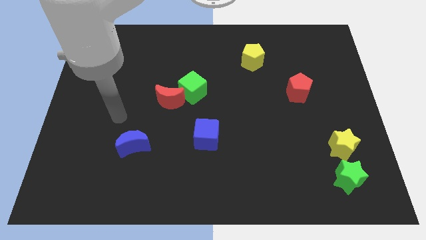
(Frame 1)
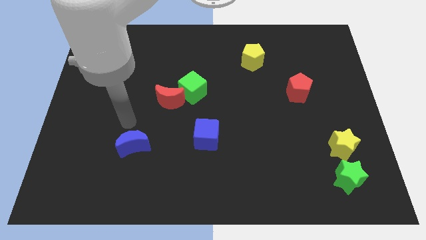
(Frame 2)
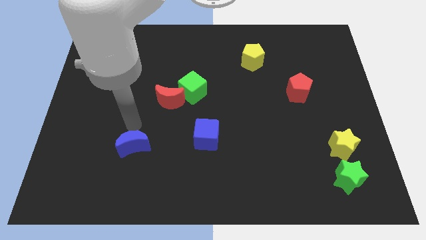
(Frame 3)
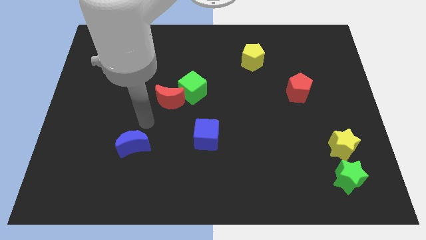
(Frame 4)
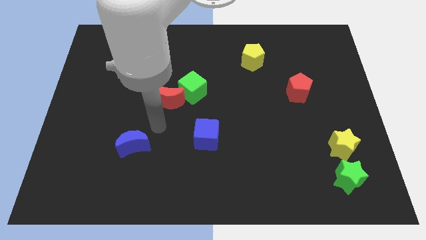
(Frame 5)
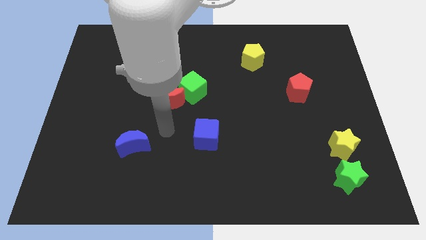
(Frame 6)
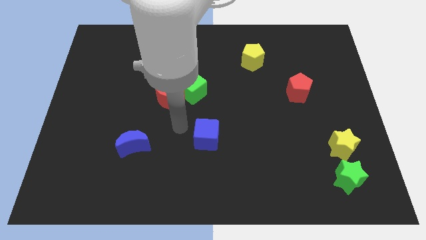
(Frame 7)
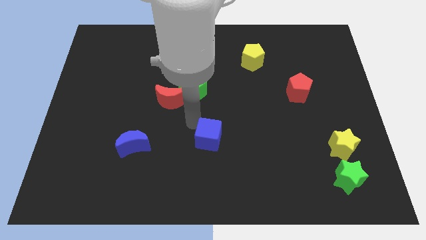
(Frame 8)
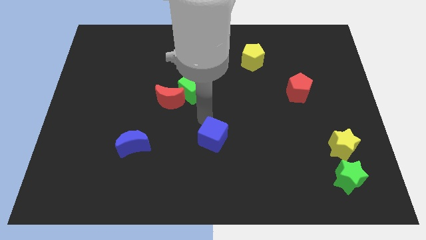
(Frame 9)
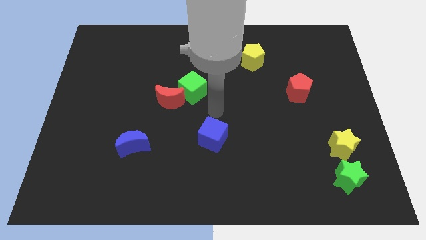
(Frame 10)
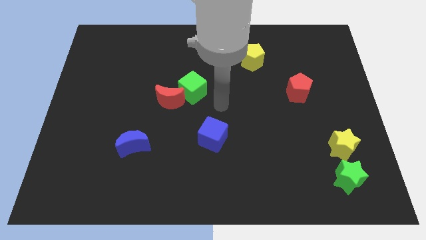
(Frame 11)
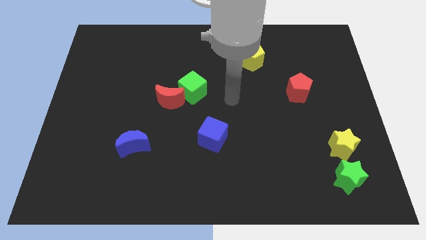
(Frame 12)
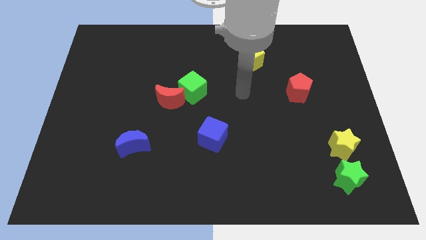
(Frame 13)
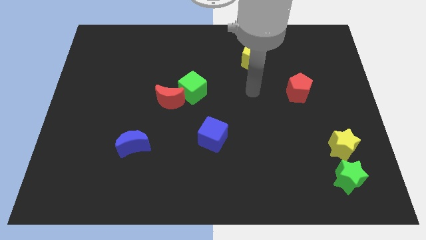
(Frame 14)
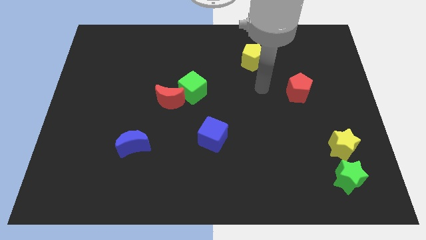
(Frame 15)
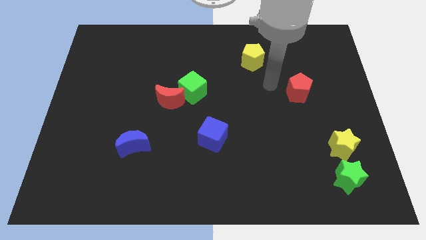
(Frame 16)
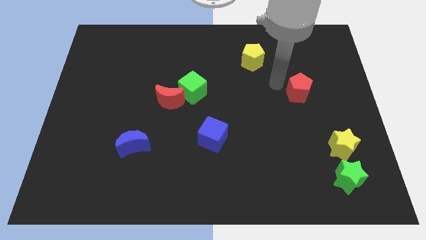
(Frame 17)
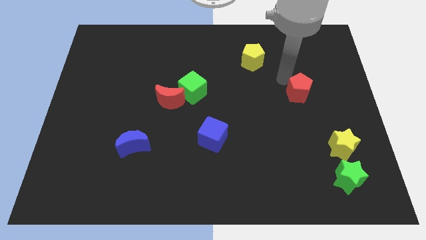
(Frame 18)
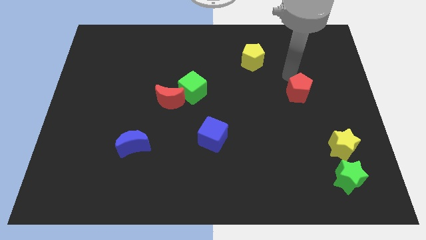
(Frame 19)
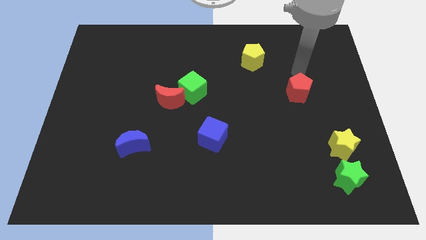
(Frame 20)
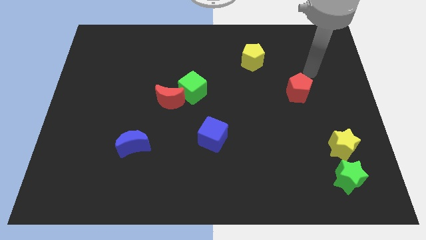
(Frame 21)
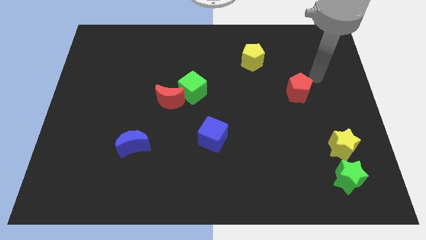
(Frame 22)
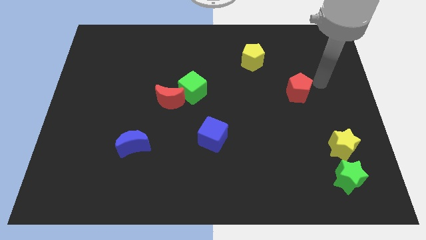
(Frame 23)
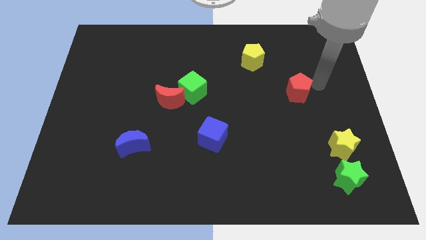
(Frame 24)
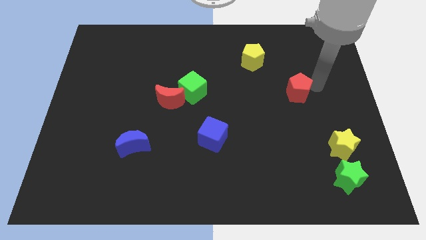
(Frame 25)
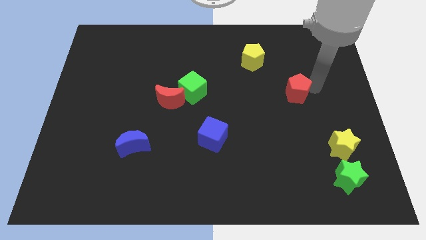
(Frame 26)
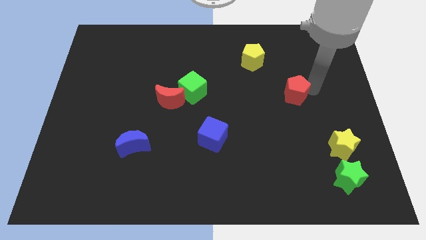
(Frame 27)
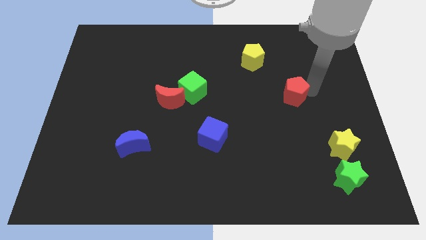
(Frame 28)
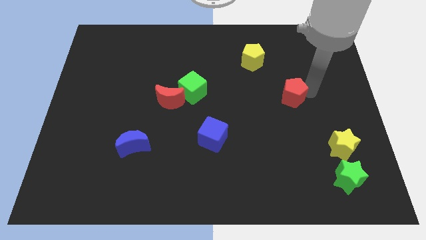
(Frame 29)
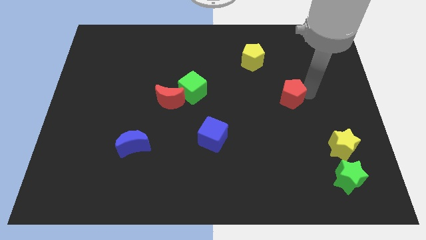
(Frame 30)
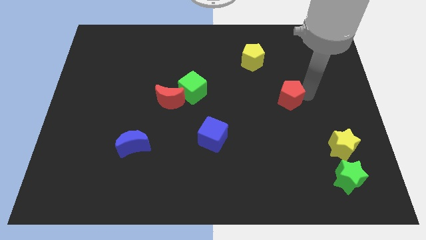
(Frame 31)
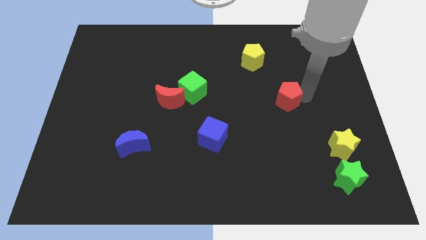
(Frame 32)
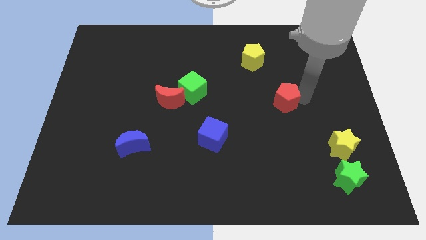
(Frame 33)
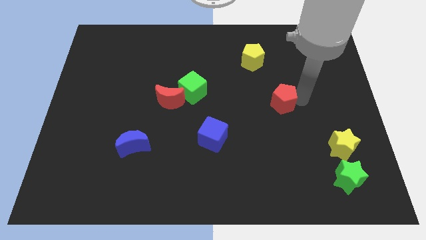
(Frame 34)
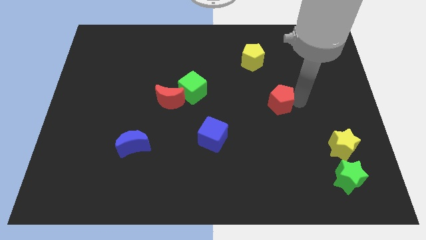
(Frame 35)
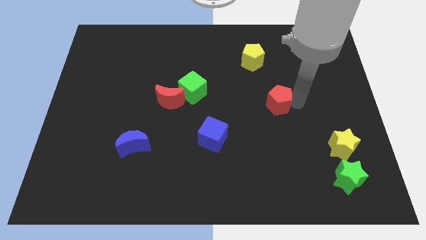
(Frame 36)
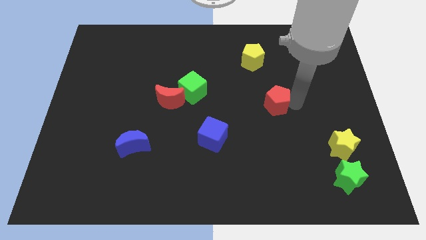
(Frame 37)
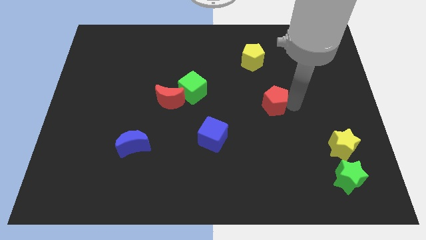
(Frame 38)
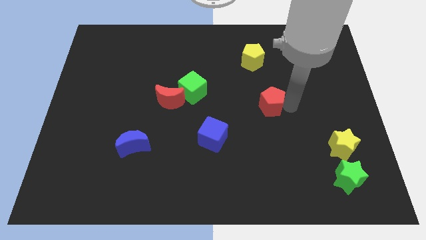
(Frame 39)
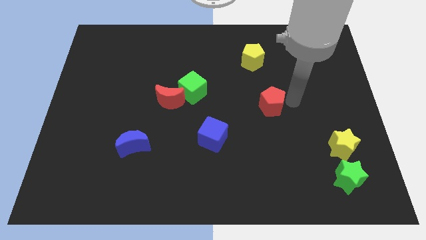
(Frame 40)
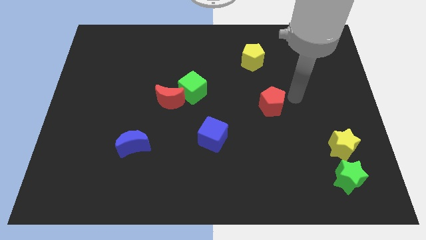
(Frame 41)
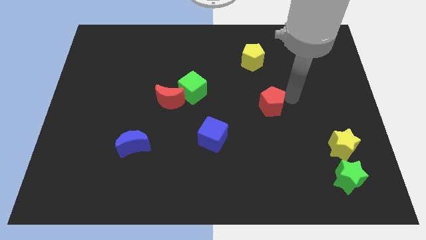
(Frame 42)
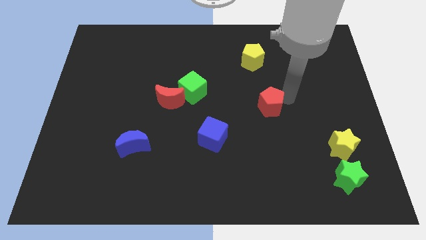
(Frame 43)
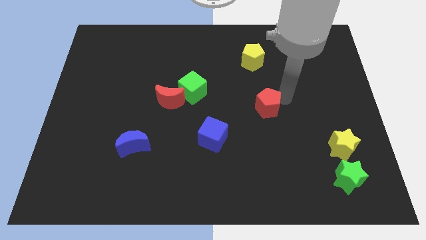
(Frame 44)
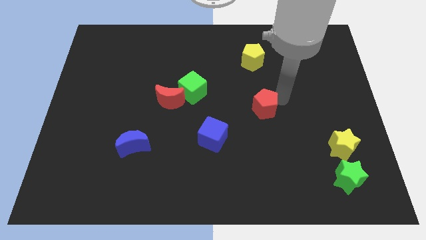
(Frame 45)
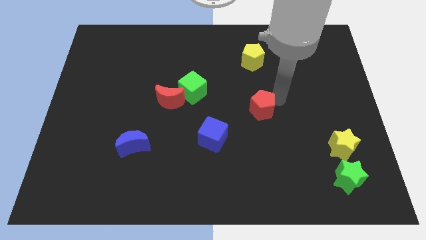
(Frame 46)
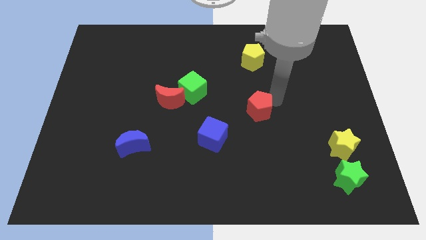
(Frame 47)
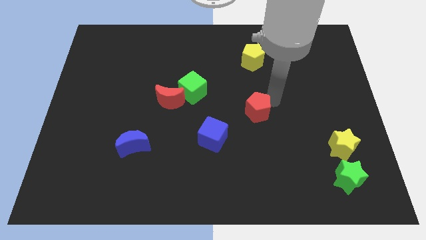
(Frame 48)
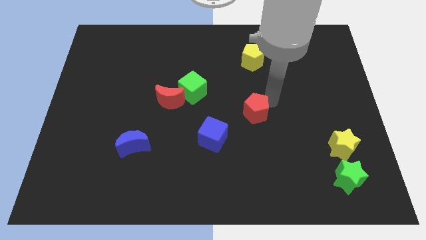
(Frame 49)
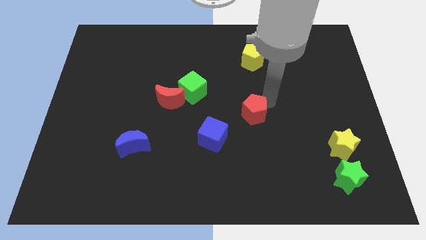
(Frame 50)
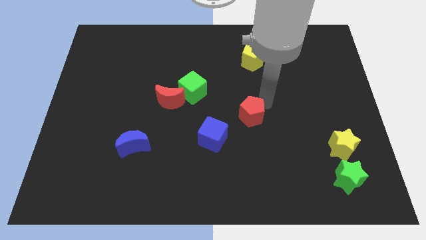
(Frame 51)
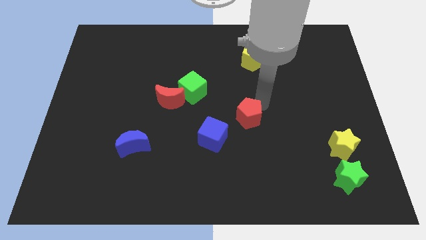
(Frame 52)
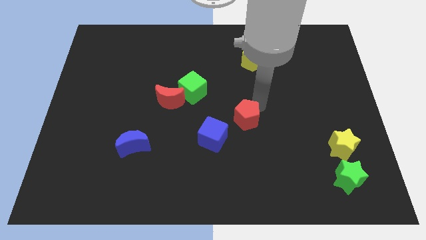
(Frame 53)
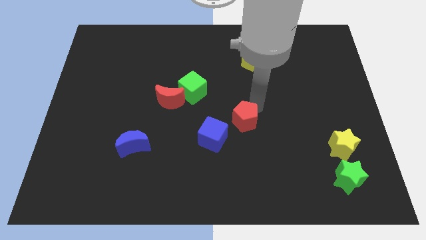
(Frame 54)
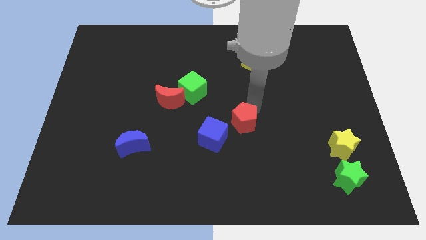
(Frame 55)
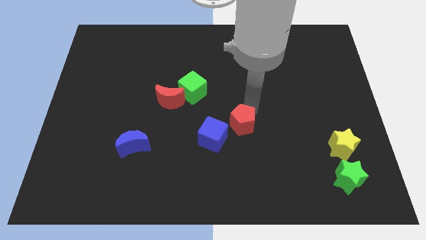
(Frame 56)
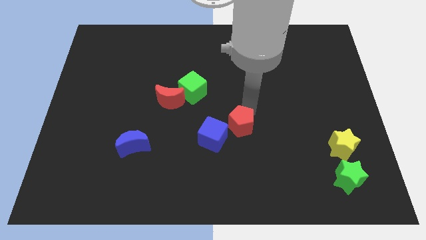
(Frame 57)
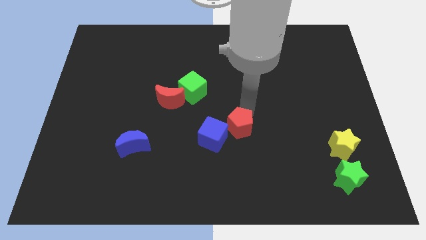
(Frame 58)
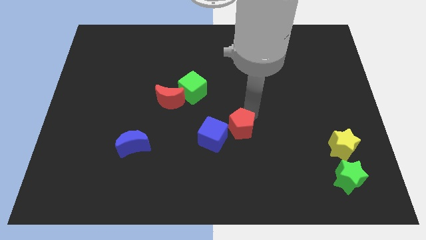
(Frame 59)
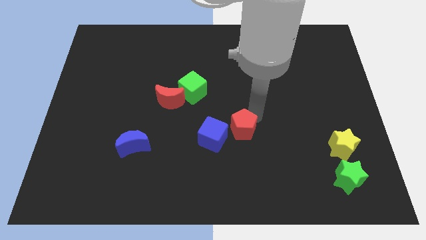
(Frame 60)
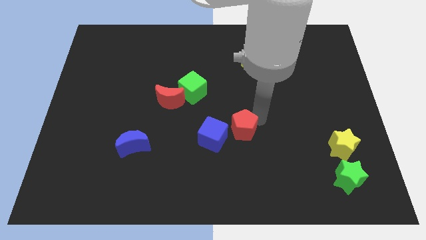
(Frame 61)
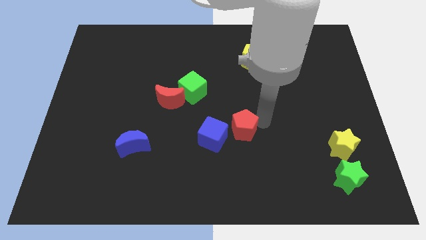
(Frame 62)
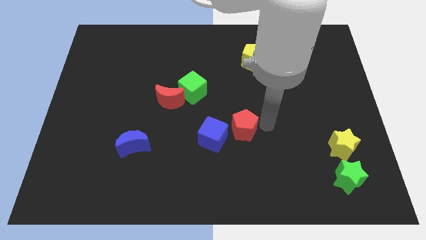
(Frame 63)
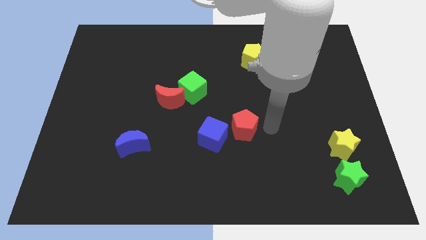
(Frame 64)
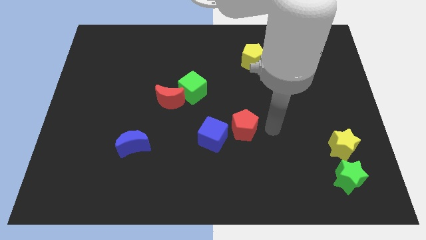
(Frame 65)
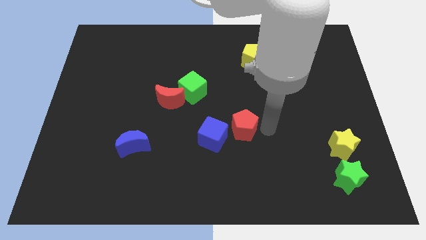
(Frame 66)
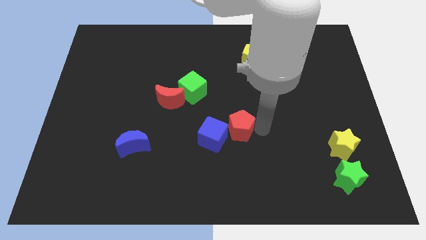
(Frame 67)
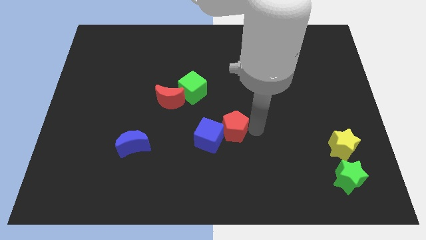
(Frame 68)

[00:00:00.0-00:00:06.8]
push the red pentagon close to the blue cube
